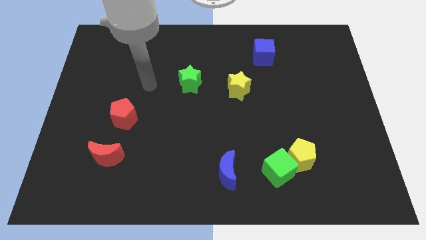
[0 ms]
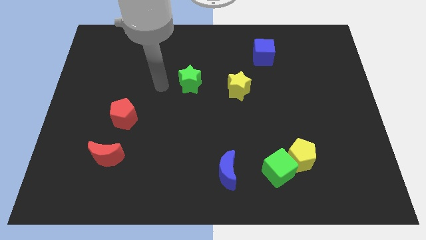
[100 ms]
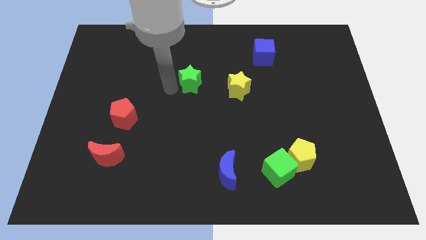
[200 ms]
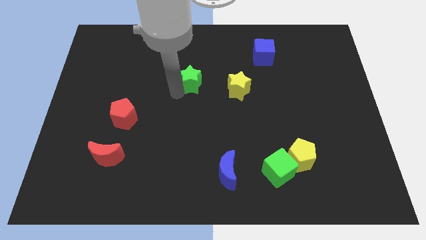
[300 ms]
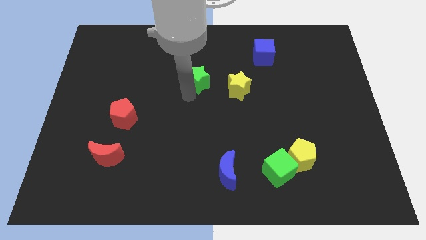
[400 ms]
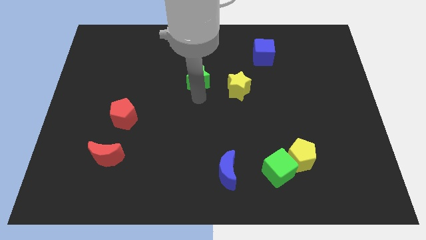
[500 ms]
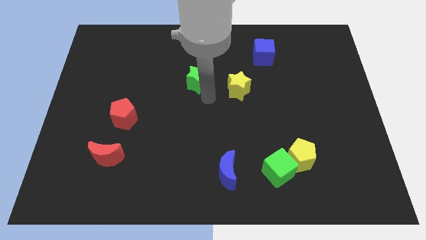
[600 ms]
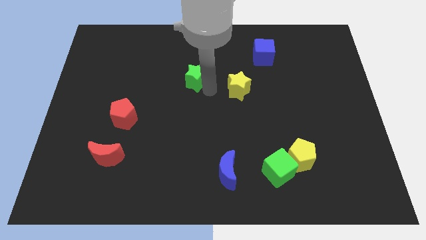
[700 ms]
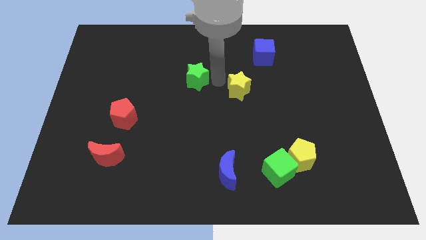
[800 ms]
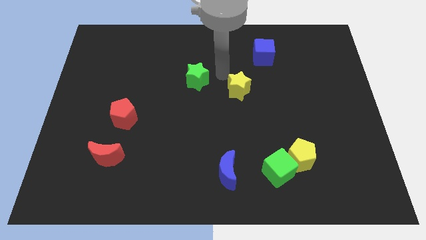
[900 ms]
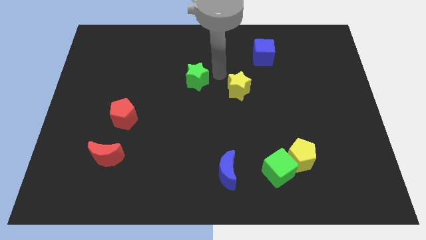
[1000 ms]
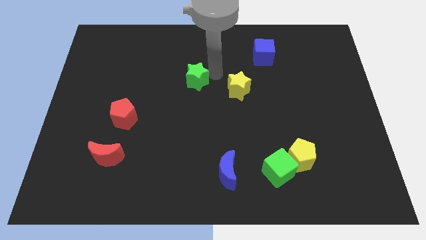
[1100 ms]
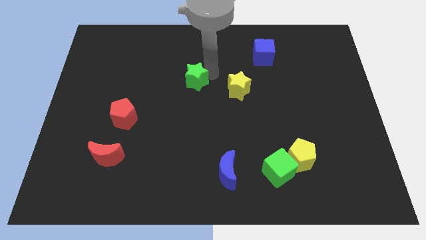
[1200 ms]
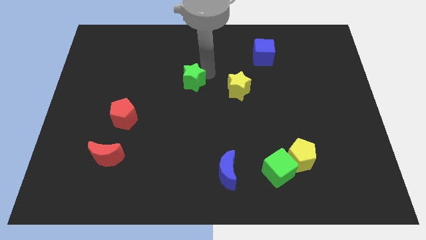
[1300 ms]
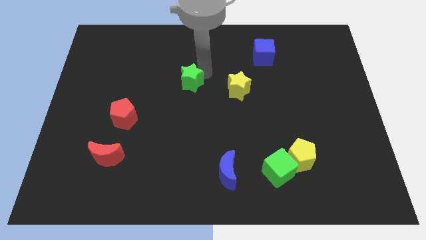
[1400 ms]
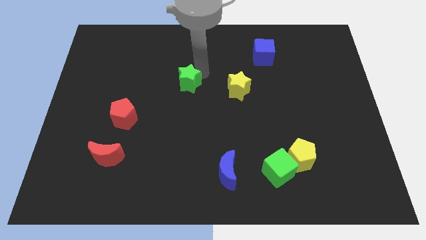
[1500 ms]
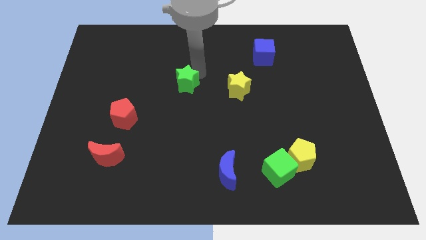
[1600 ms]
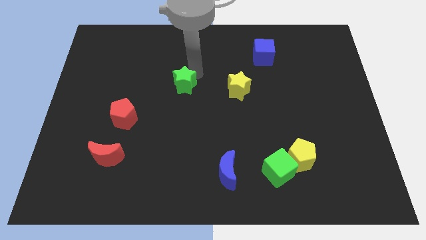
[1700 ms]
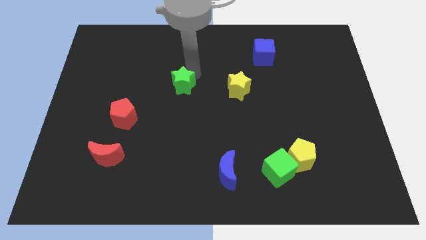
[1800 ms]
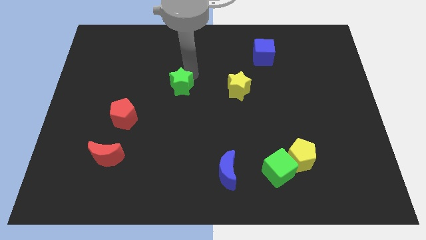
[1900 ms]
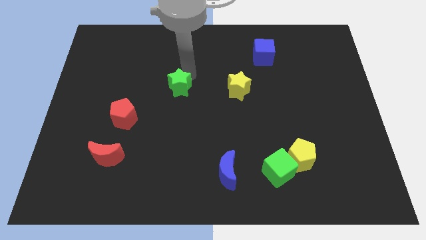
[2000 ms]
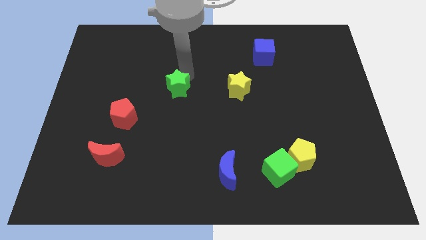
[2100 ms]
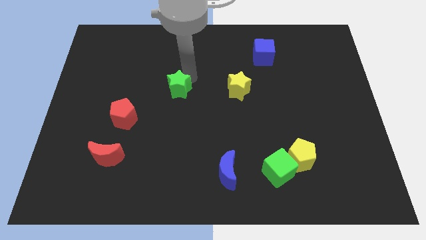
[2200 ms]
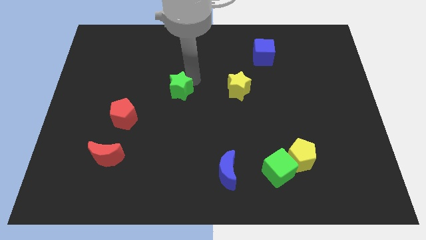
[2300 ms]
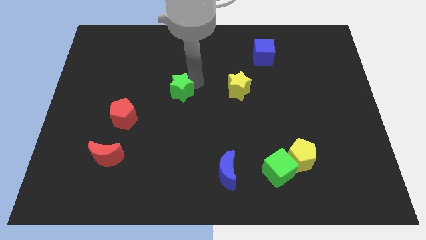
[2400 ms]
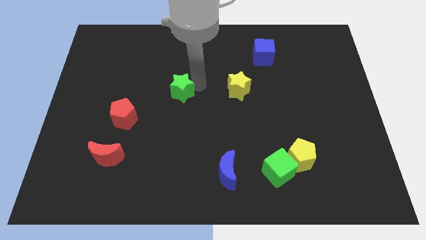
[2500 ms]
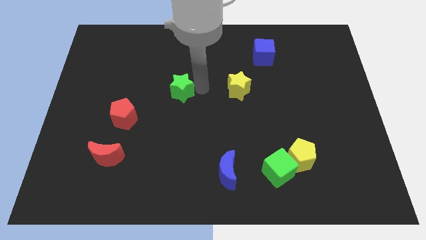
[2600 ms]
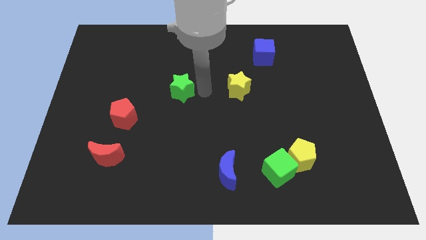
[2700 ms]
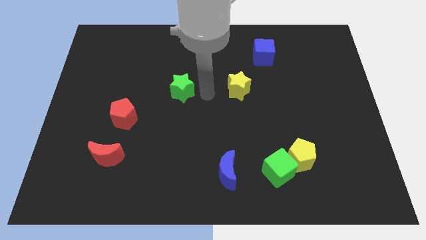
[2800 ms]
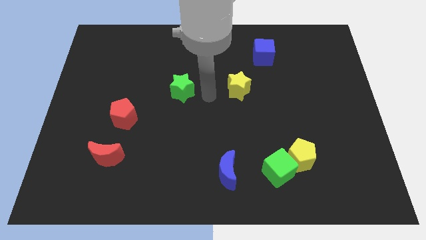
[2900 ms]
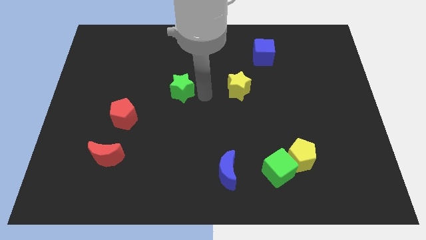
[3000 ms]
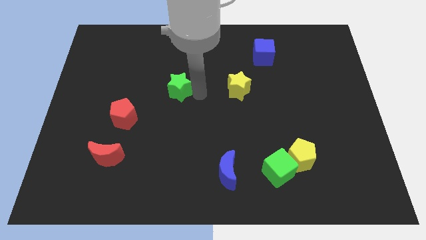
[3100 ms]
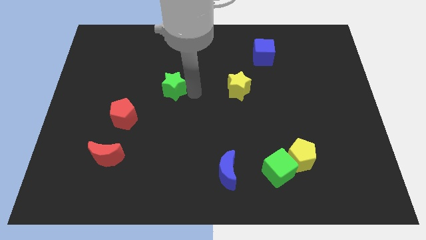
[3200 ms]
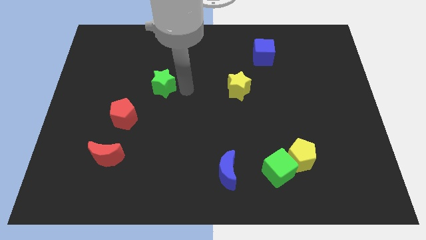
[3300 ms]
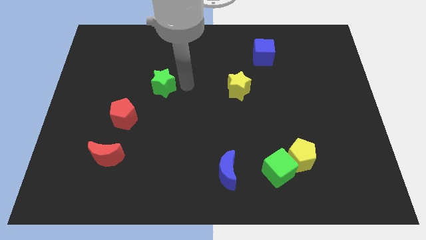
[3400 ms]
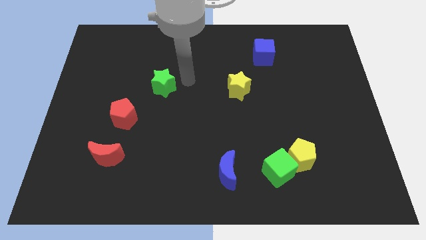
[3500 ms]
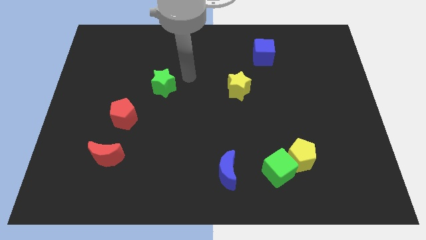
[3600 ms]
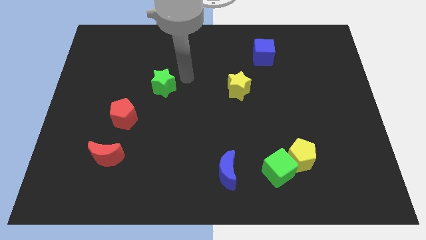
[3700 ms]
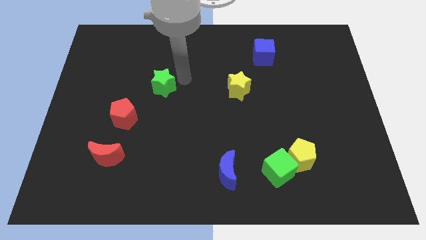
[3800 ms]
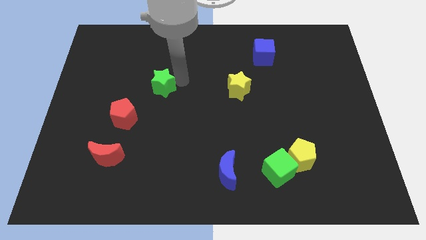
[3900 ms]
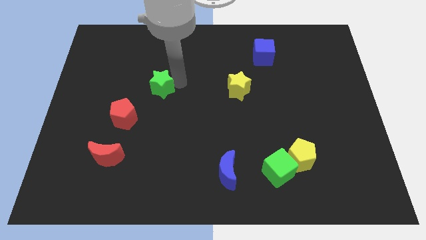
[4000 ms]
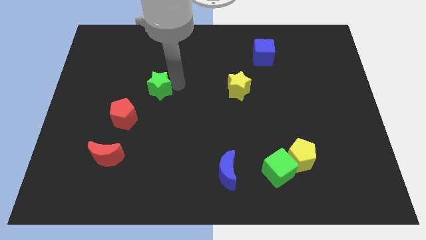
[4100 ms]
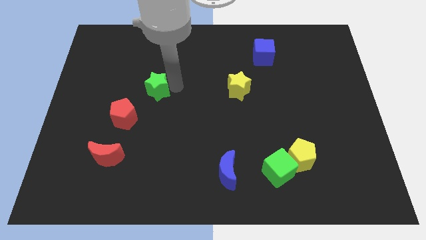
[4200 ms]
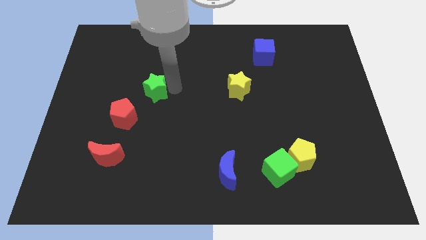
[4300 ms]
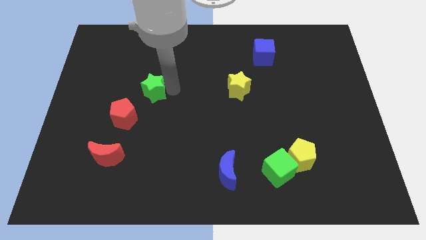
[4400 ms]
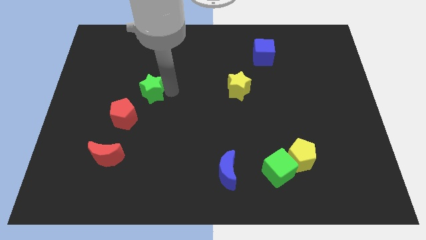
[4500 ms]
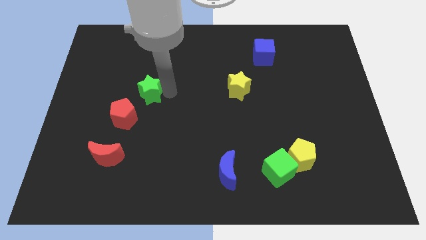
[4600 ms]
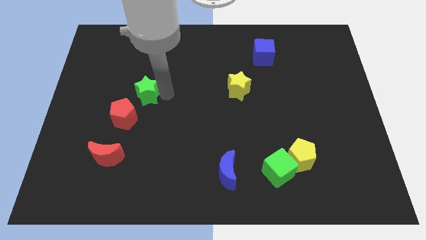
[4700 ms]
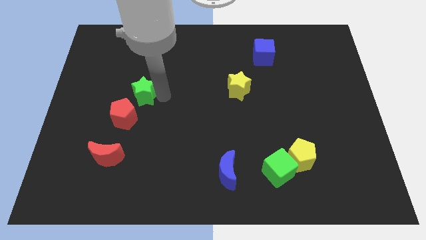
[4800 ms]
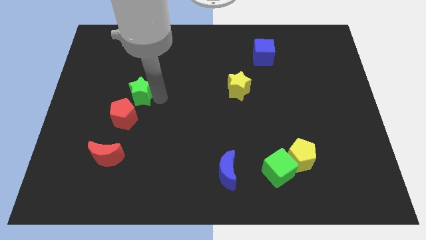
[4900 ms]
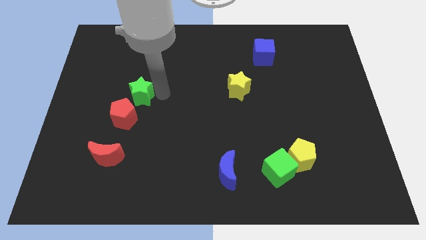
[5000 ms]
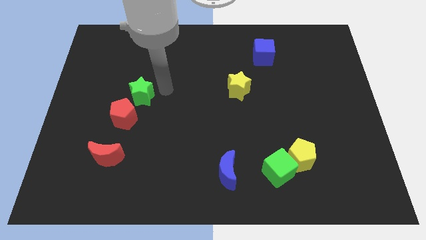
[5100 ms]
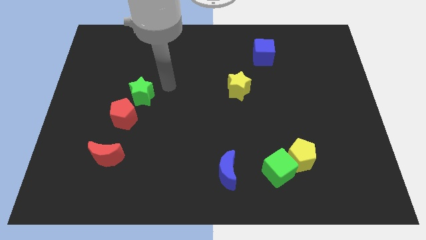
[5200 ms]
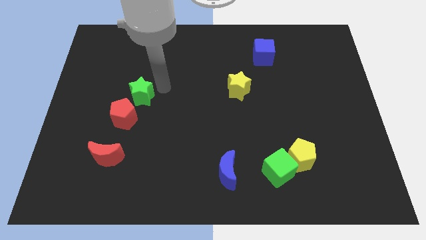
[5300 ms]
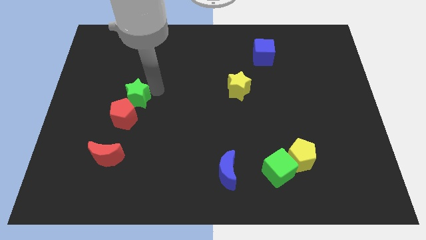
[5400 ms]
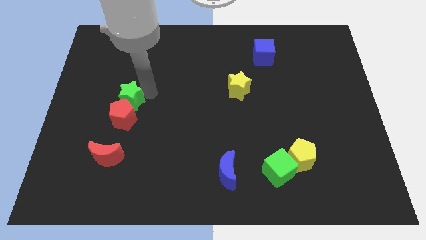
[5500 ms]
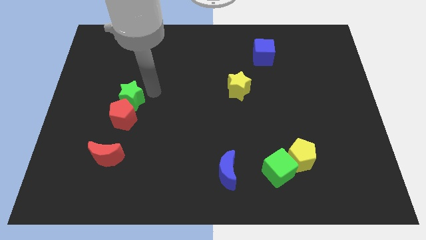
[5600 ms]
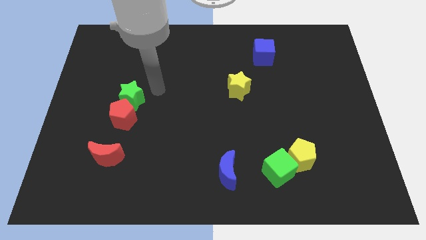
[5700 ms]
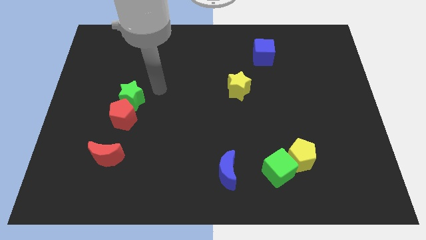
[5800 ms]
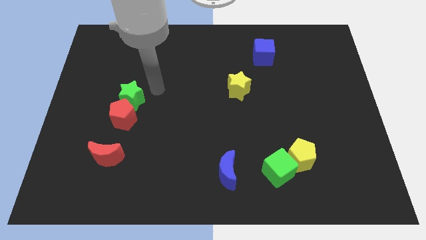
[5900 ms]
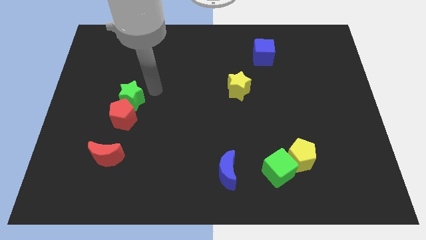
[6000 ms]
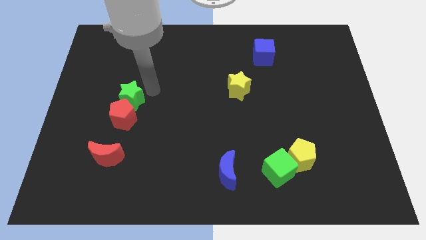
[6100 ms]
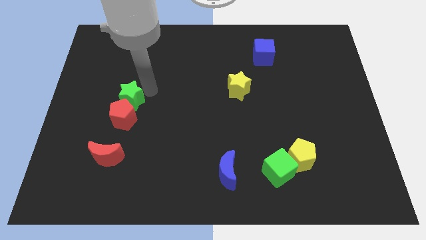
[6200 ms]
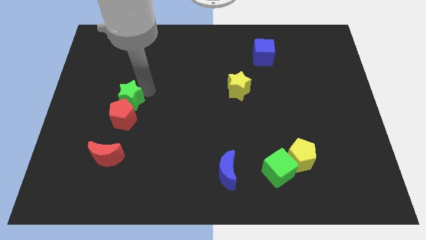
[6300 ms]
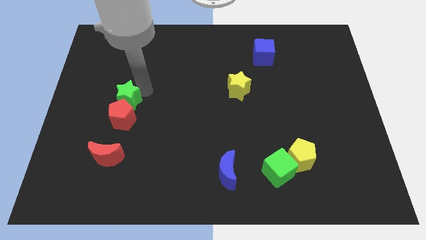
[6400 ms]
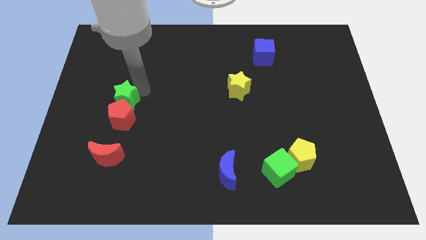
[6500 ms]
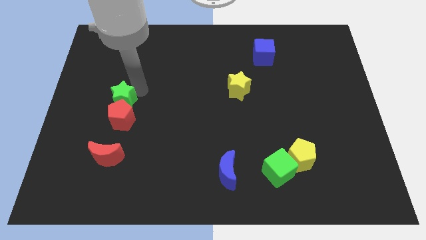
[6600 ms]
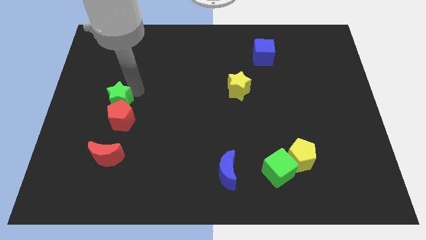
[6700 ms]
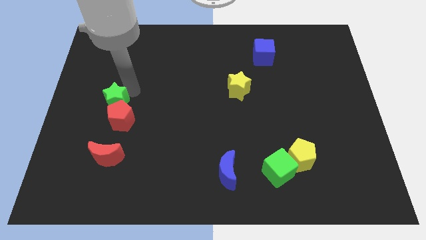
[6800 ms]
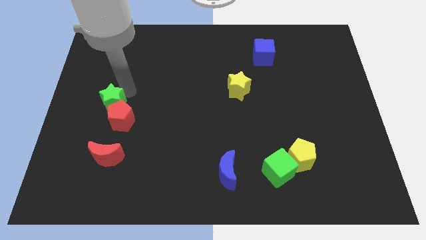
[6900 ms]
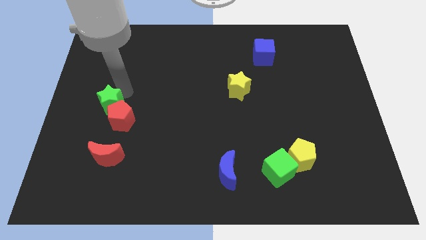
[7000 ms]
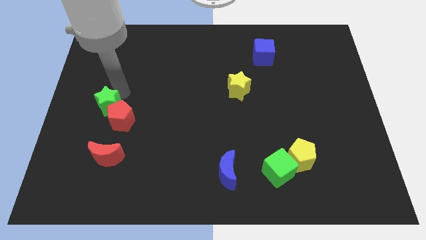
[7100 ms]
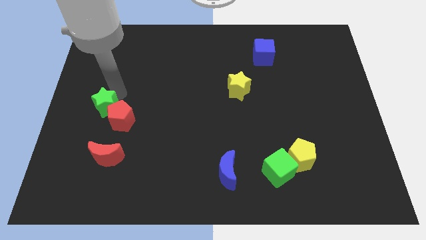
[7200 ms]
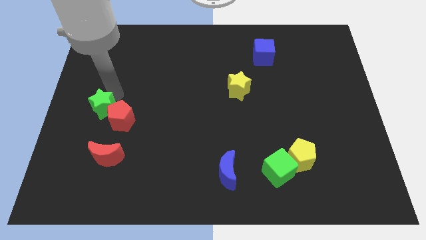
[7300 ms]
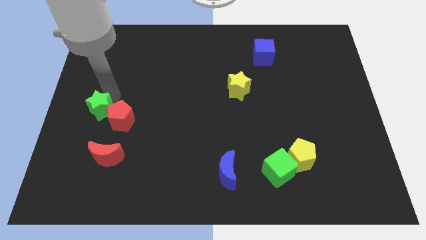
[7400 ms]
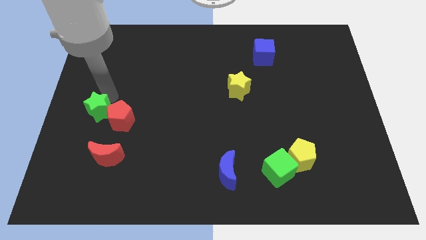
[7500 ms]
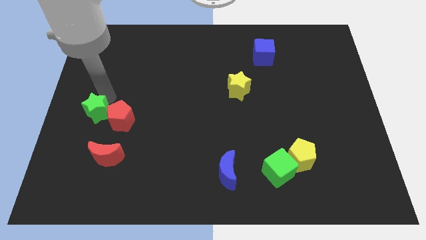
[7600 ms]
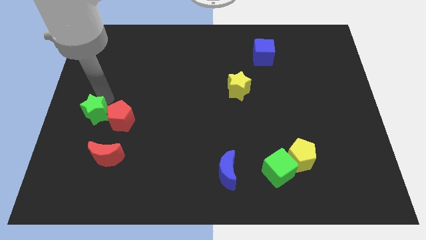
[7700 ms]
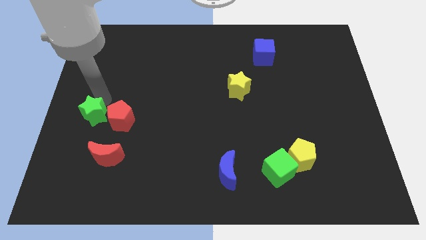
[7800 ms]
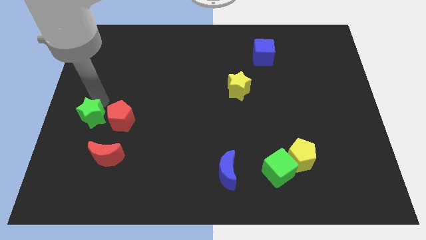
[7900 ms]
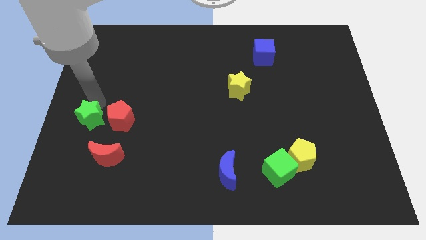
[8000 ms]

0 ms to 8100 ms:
slide the green star to the top left side of the red moon
